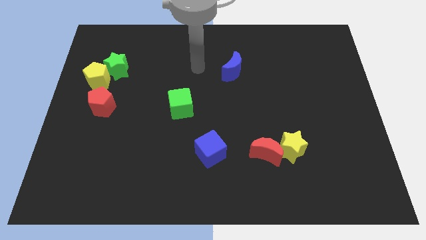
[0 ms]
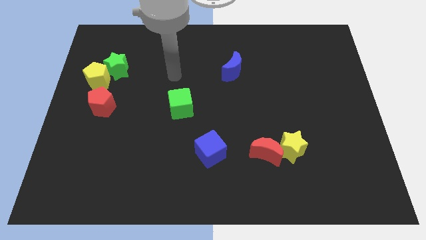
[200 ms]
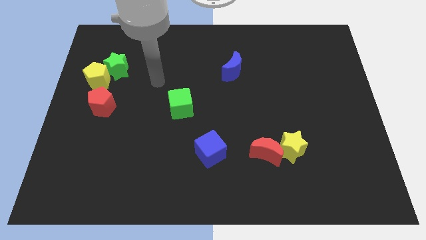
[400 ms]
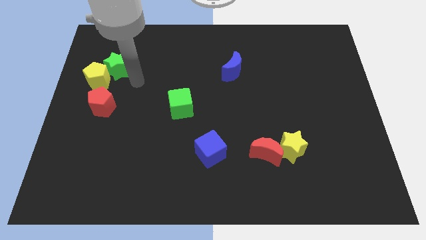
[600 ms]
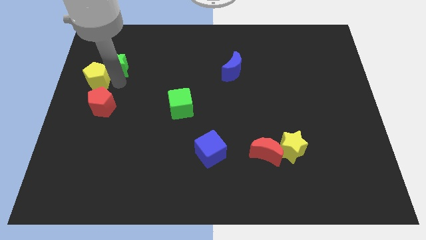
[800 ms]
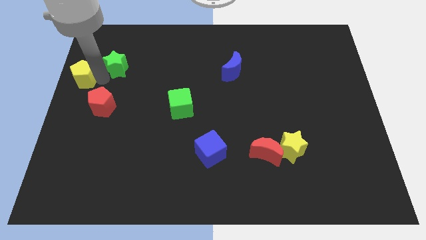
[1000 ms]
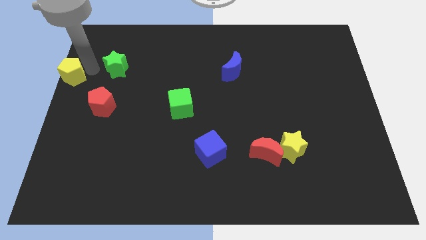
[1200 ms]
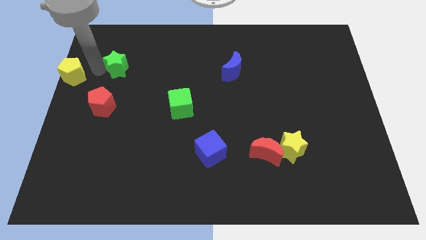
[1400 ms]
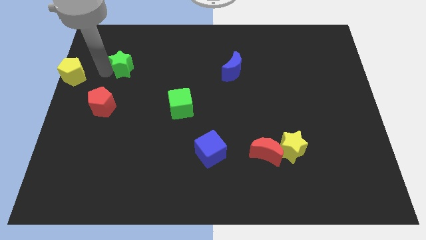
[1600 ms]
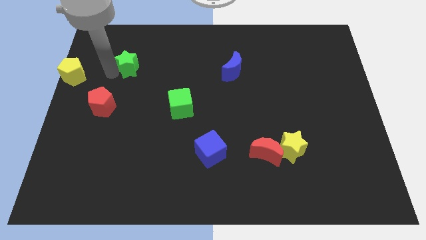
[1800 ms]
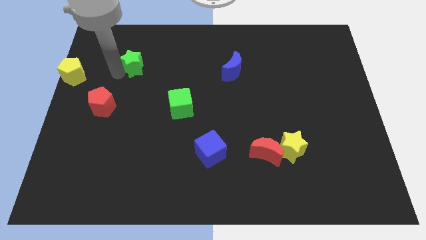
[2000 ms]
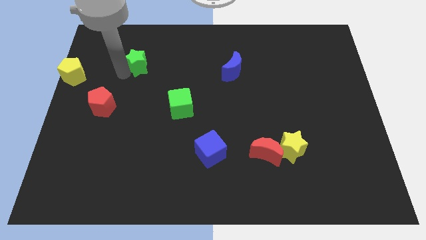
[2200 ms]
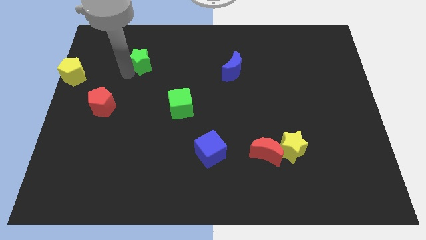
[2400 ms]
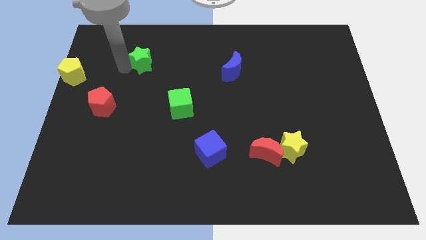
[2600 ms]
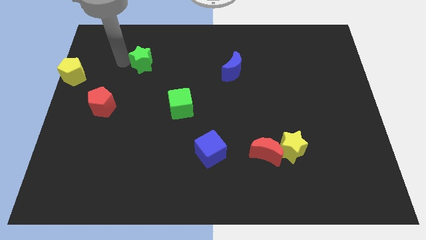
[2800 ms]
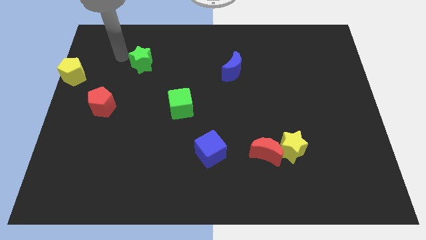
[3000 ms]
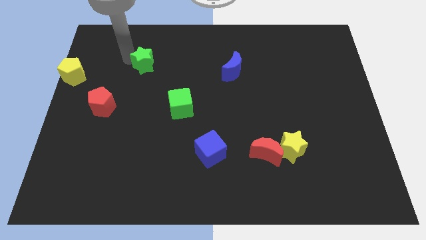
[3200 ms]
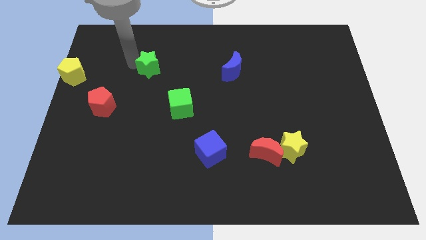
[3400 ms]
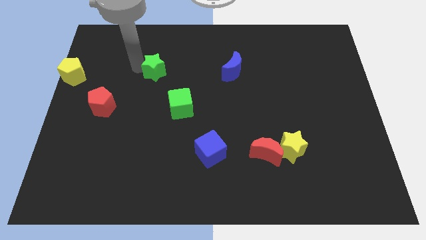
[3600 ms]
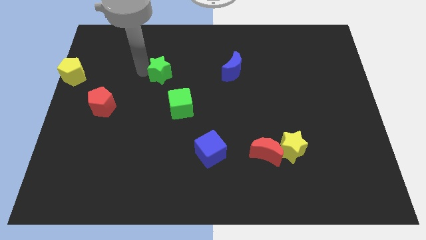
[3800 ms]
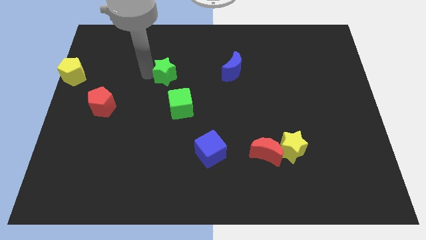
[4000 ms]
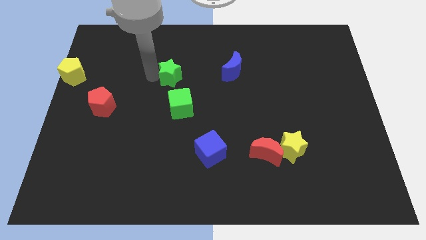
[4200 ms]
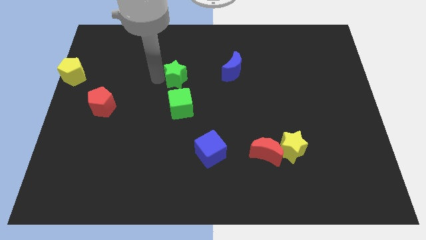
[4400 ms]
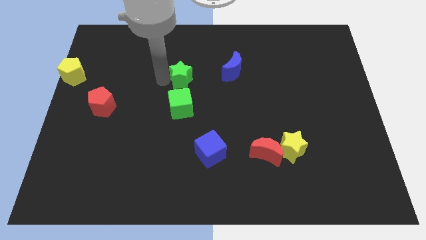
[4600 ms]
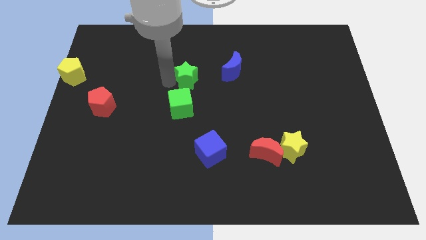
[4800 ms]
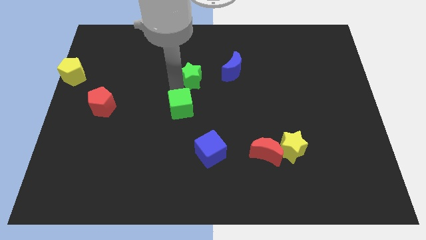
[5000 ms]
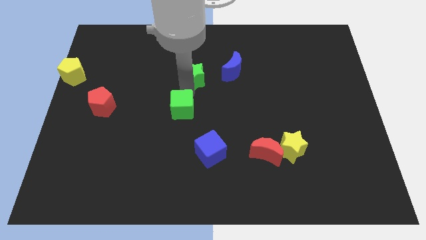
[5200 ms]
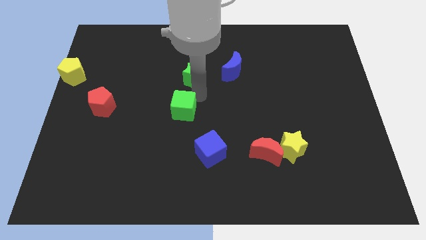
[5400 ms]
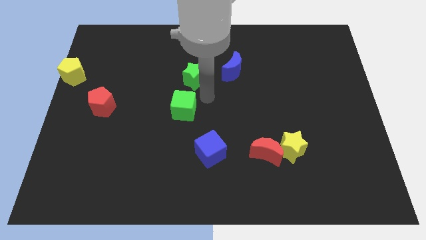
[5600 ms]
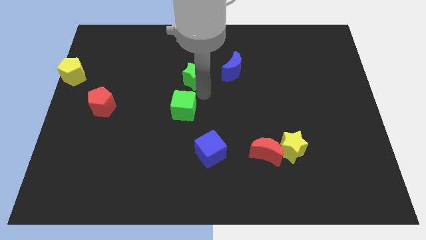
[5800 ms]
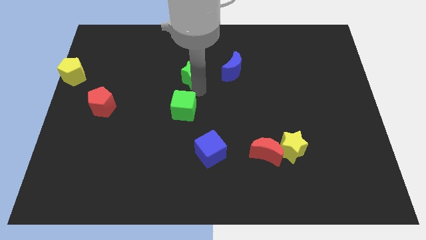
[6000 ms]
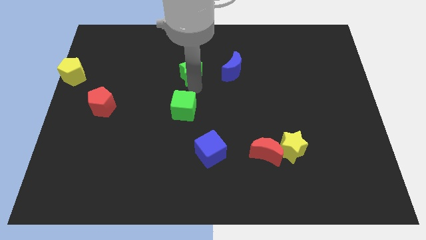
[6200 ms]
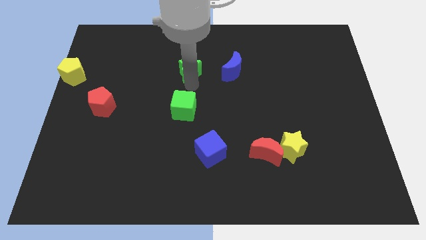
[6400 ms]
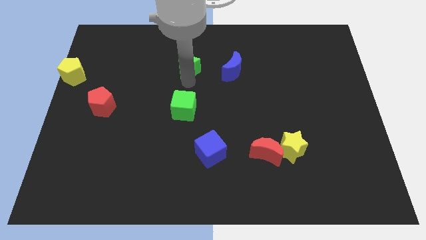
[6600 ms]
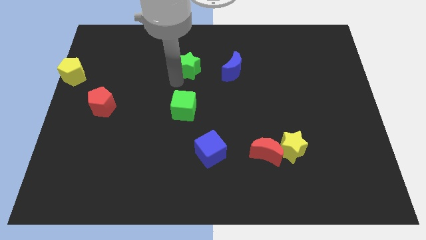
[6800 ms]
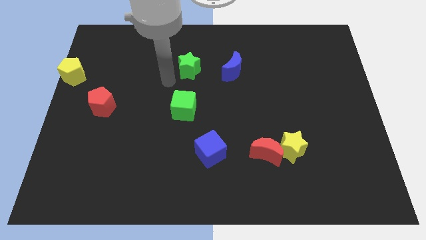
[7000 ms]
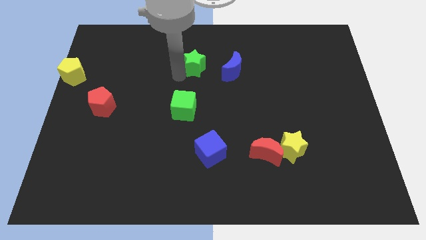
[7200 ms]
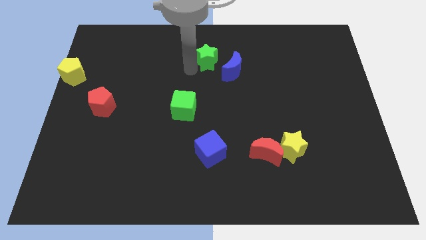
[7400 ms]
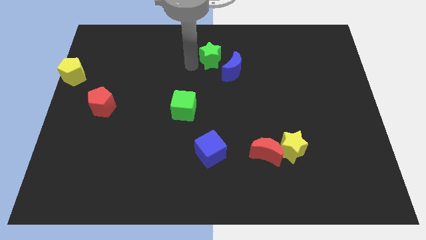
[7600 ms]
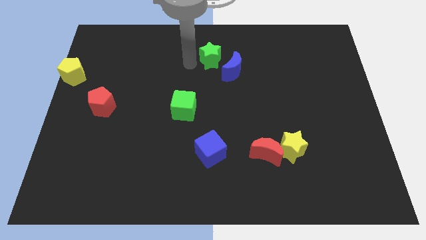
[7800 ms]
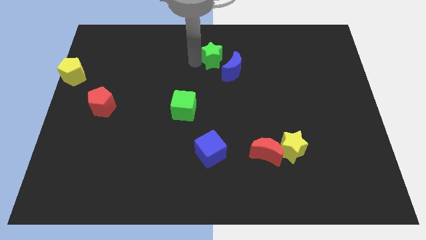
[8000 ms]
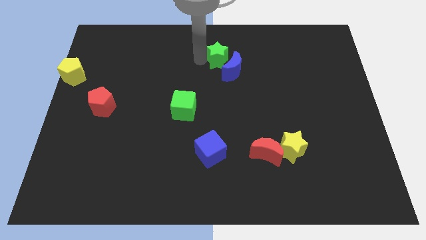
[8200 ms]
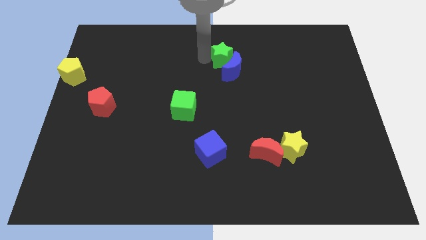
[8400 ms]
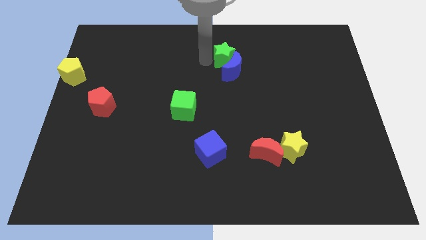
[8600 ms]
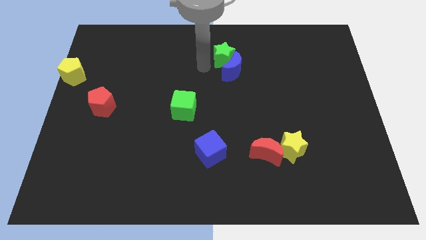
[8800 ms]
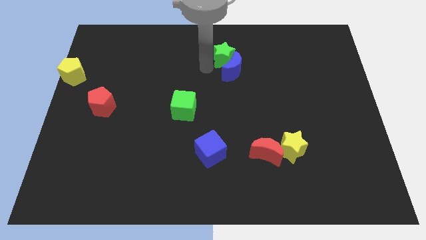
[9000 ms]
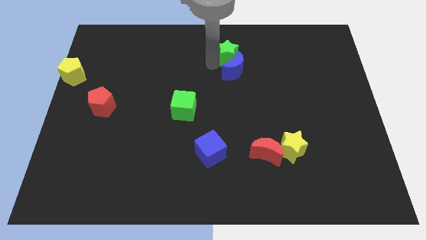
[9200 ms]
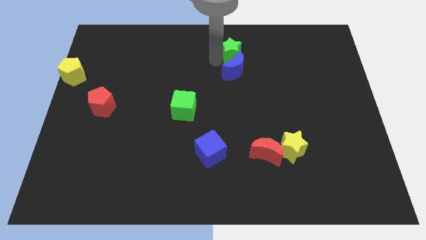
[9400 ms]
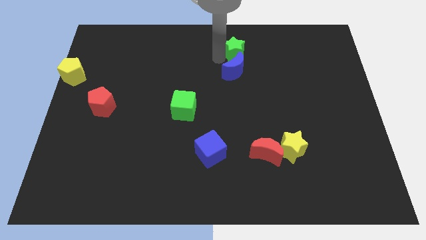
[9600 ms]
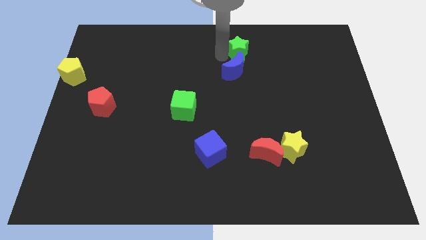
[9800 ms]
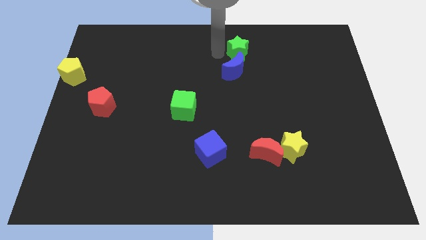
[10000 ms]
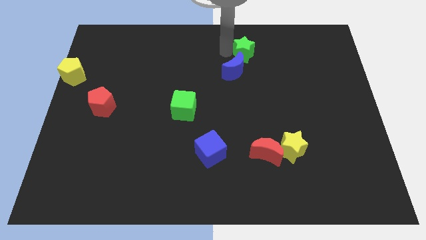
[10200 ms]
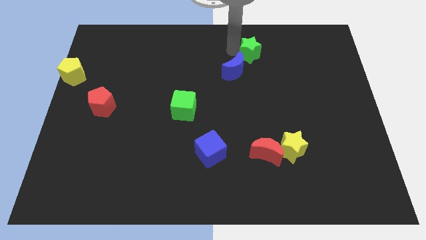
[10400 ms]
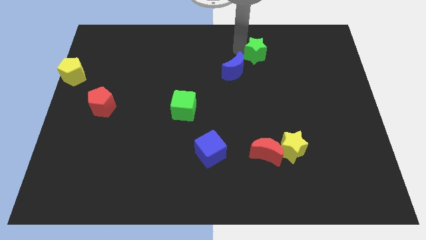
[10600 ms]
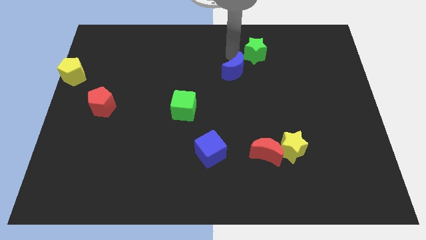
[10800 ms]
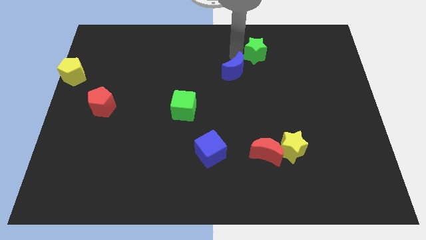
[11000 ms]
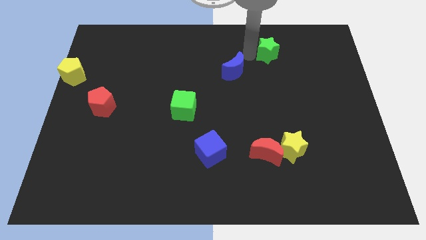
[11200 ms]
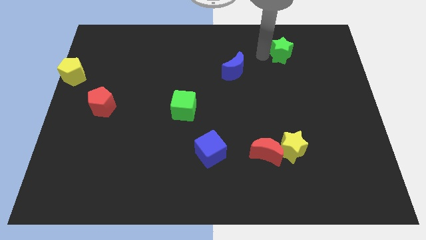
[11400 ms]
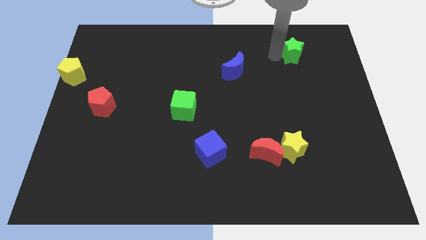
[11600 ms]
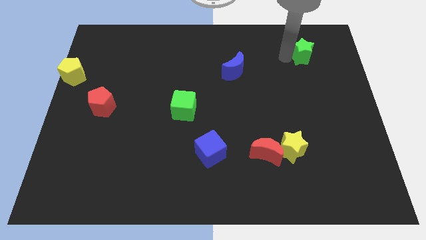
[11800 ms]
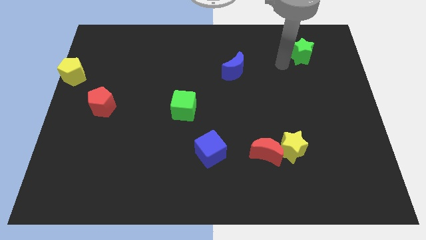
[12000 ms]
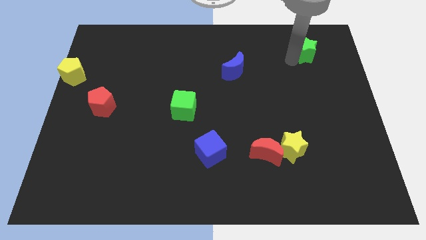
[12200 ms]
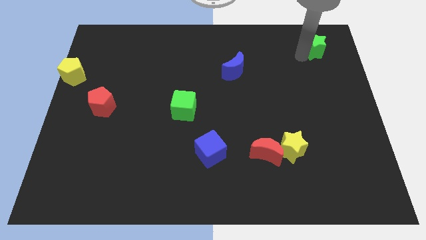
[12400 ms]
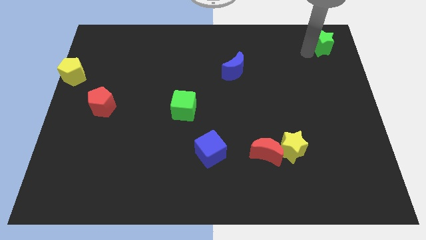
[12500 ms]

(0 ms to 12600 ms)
move the green star to the upper right corner

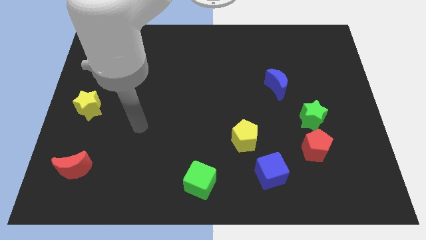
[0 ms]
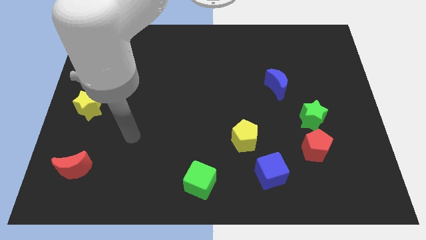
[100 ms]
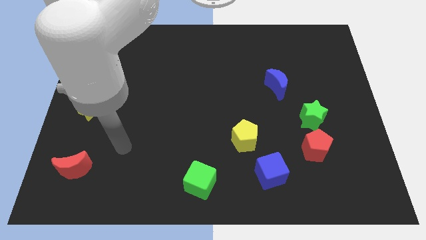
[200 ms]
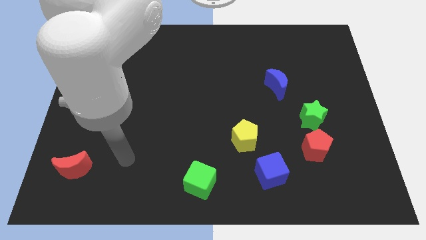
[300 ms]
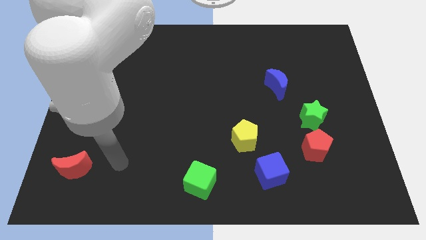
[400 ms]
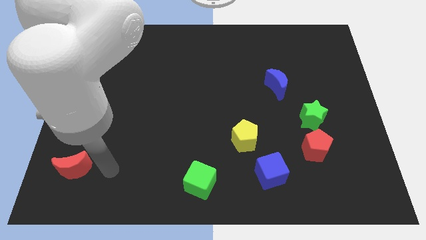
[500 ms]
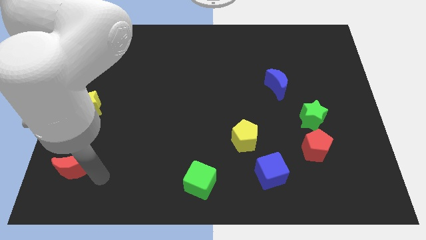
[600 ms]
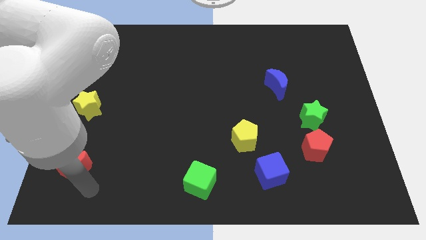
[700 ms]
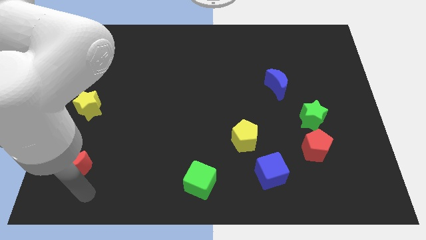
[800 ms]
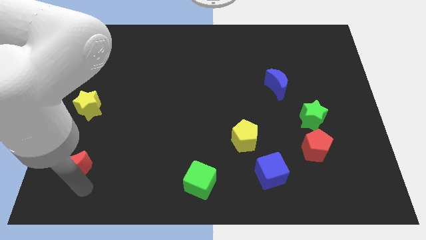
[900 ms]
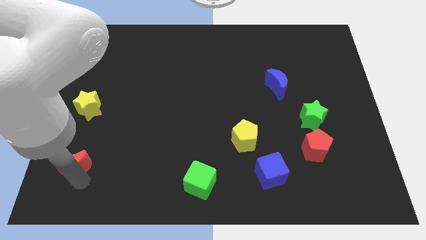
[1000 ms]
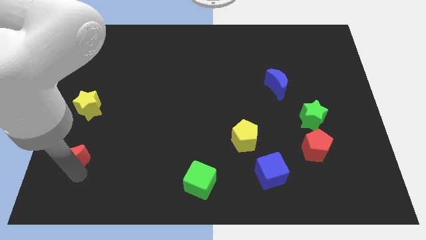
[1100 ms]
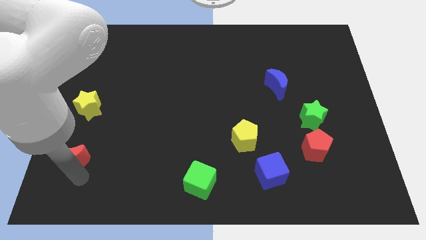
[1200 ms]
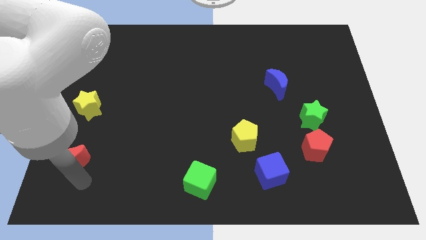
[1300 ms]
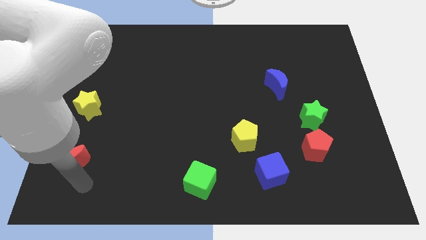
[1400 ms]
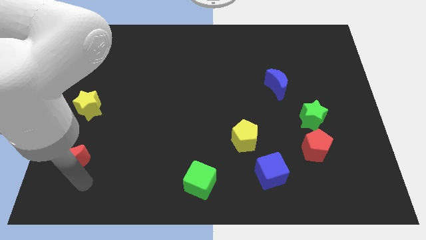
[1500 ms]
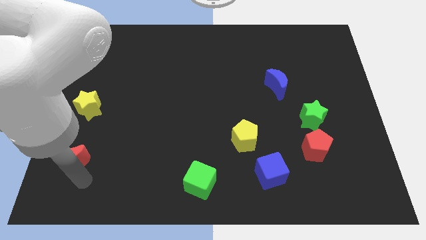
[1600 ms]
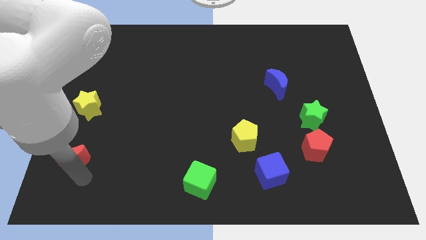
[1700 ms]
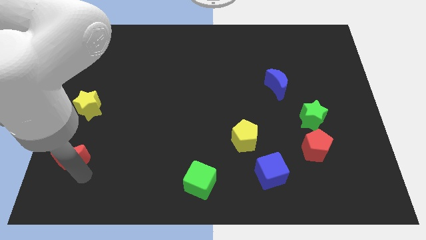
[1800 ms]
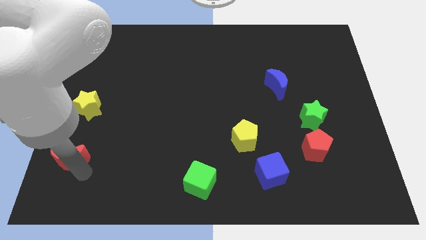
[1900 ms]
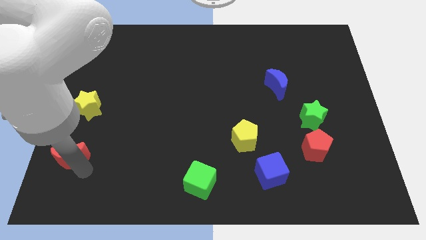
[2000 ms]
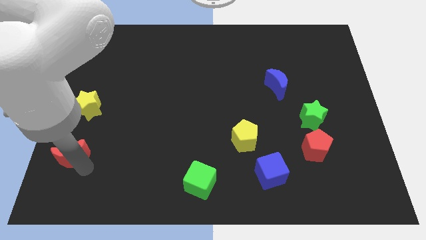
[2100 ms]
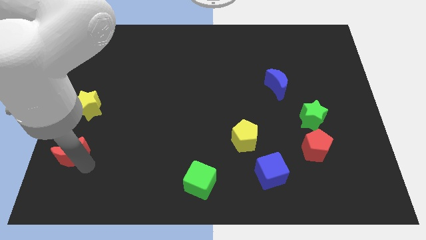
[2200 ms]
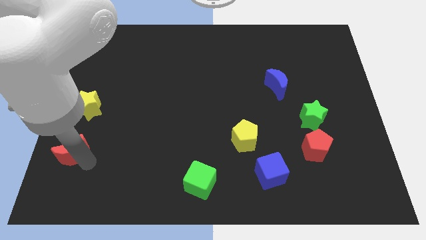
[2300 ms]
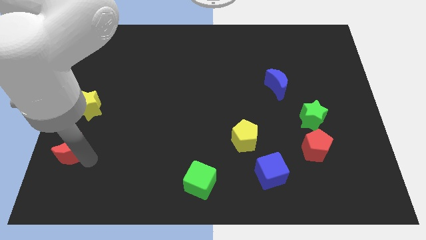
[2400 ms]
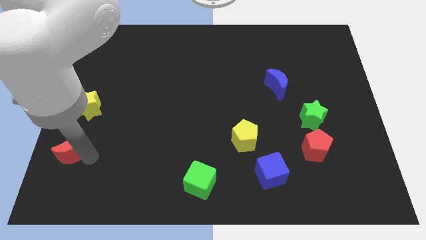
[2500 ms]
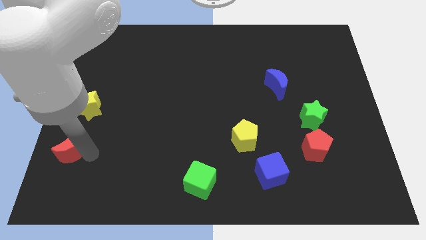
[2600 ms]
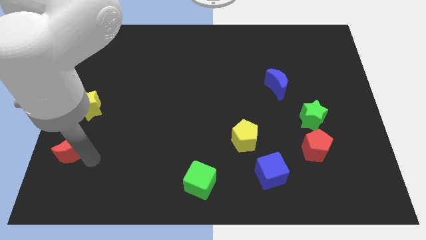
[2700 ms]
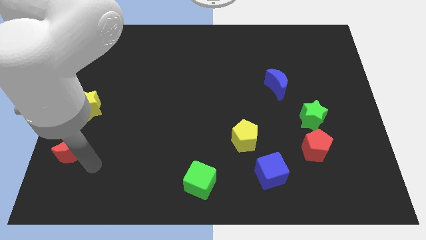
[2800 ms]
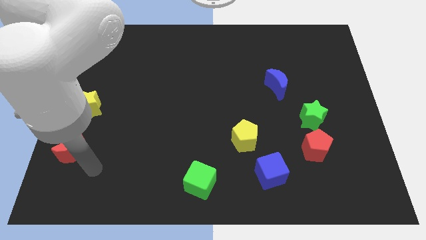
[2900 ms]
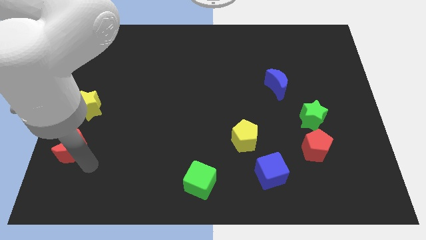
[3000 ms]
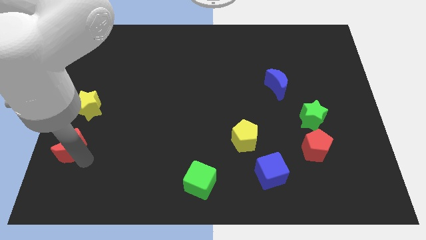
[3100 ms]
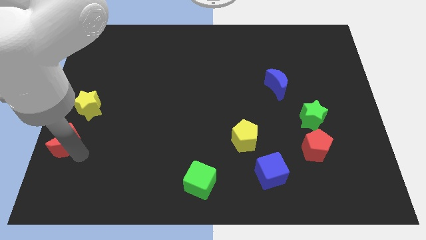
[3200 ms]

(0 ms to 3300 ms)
slide the red moon to the center left
